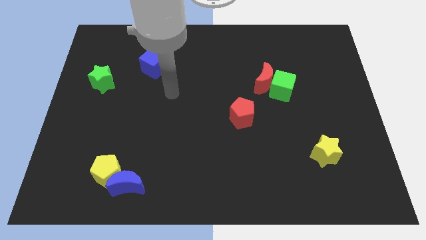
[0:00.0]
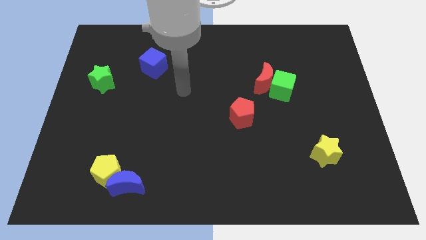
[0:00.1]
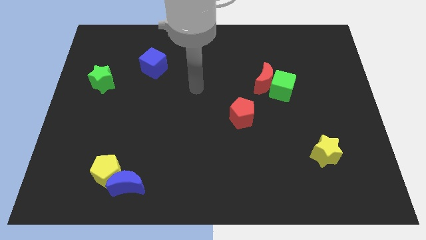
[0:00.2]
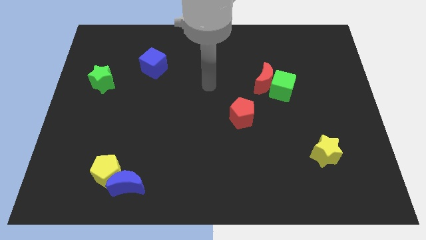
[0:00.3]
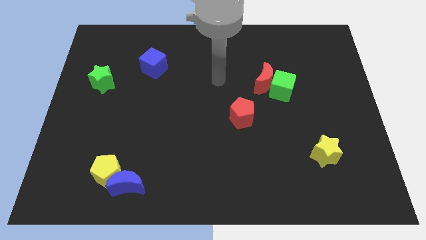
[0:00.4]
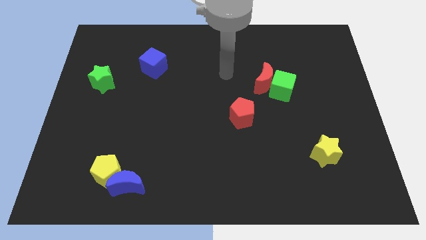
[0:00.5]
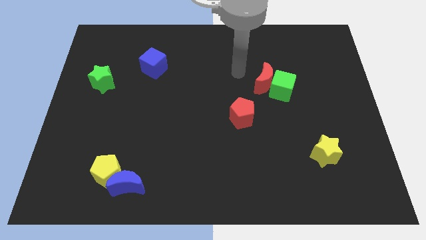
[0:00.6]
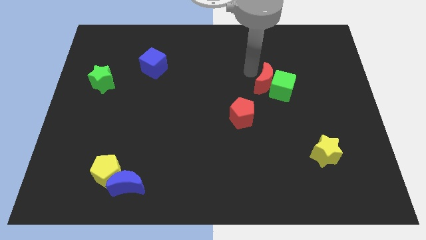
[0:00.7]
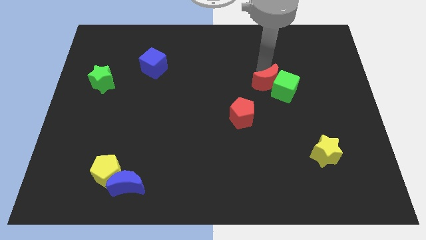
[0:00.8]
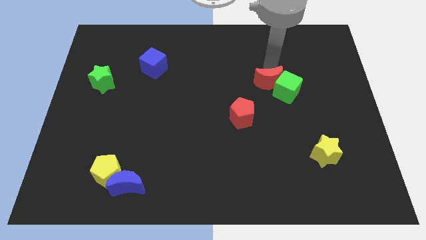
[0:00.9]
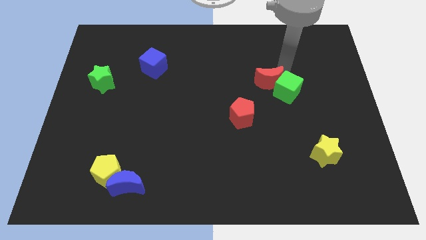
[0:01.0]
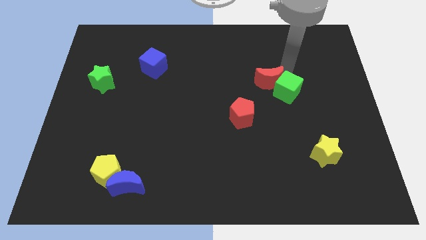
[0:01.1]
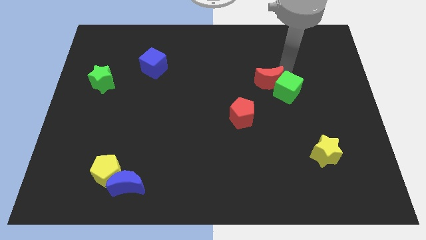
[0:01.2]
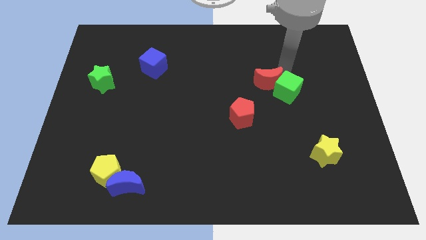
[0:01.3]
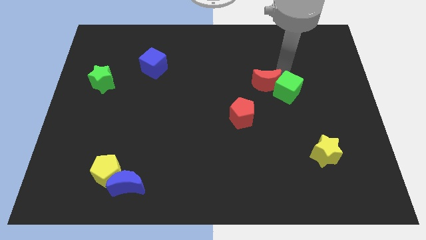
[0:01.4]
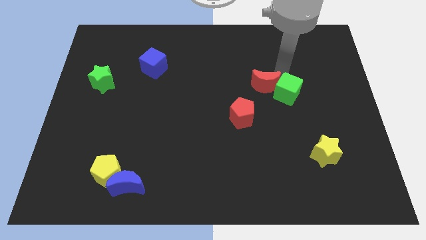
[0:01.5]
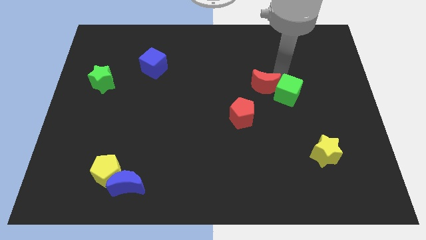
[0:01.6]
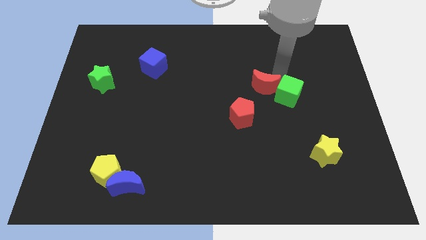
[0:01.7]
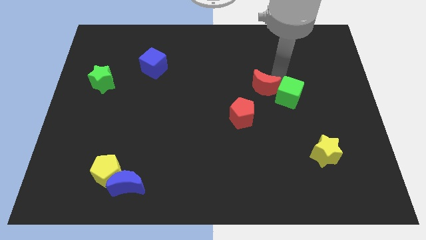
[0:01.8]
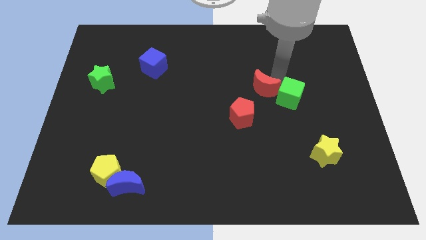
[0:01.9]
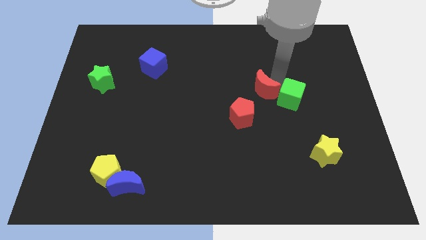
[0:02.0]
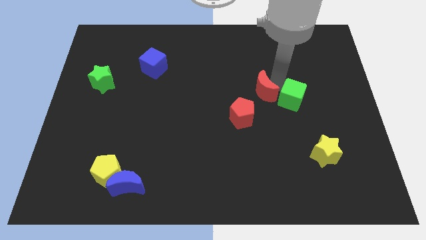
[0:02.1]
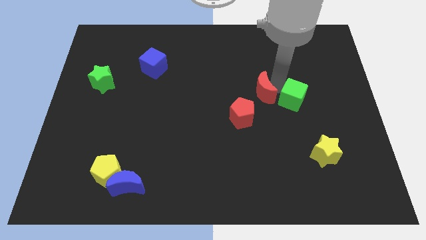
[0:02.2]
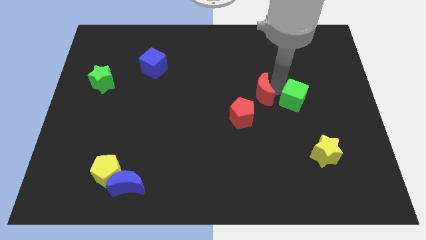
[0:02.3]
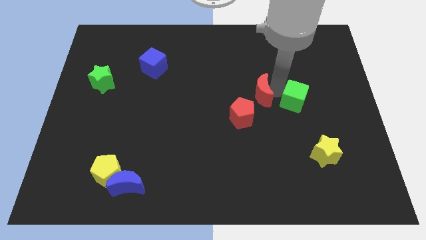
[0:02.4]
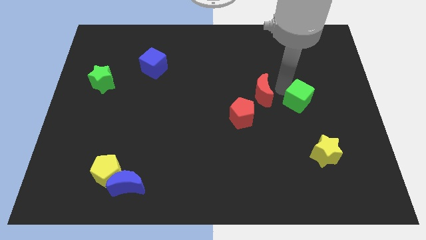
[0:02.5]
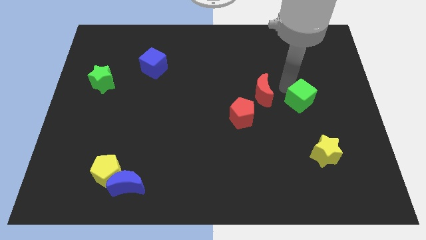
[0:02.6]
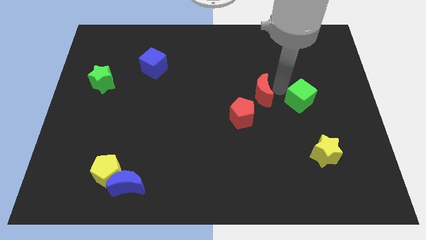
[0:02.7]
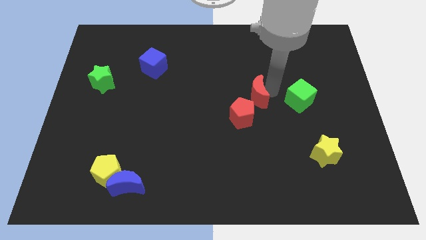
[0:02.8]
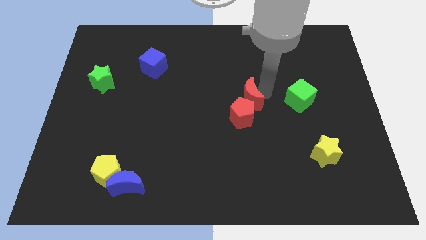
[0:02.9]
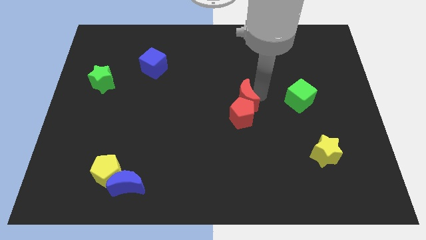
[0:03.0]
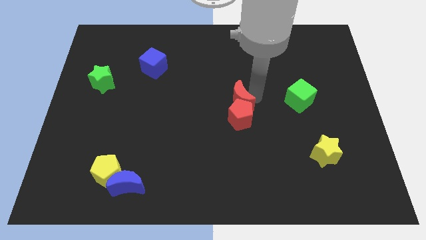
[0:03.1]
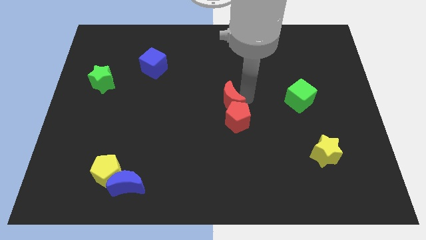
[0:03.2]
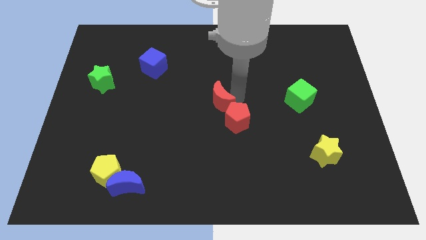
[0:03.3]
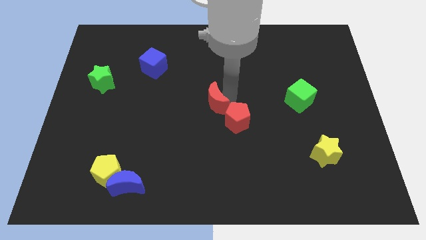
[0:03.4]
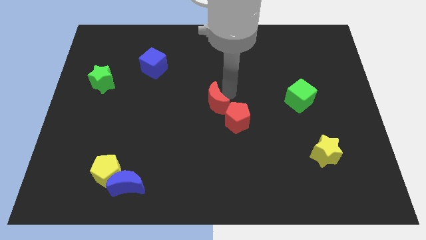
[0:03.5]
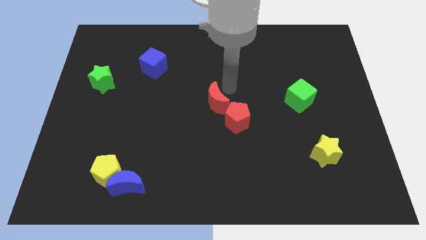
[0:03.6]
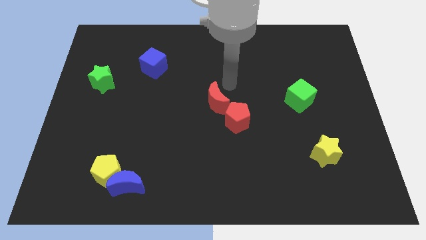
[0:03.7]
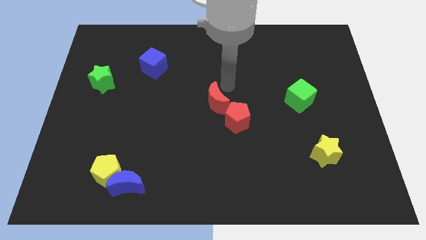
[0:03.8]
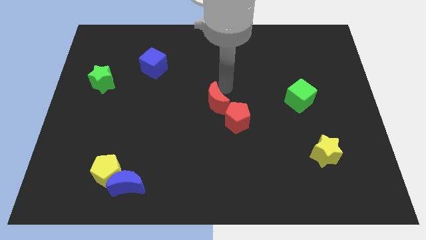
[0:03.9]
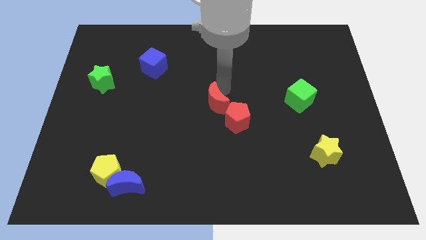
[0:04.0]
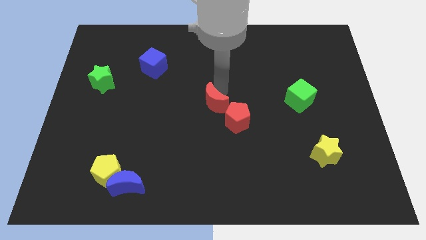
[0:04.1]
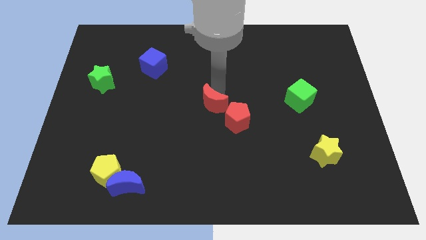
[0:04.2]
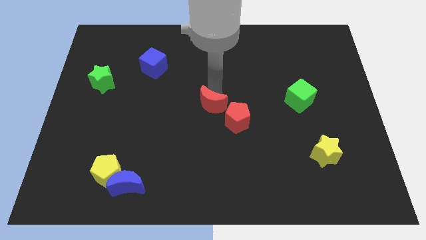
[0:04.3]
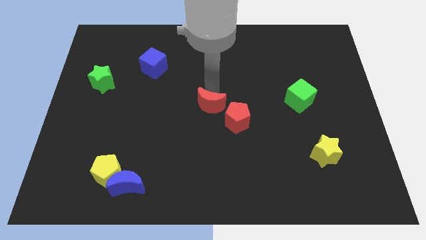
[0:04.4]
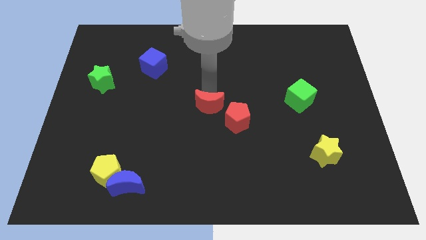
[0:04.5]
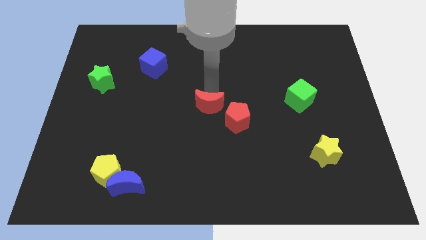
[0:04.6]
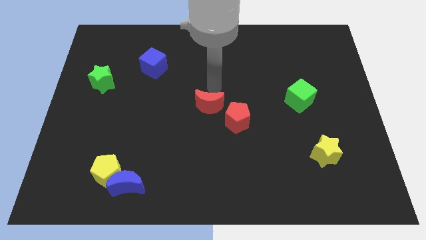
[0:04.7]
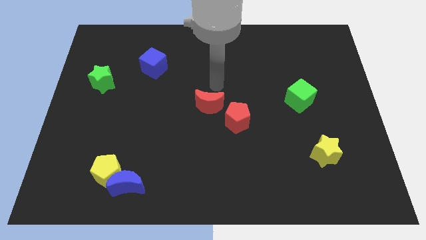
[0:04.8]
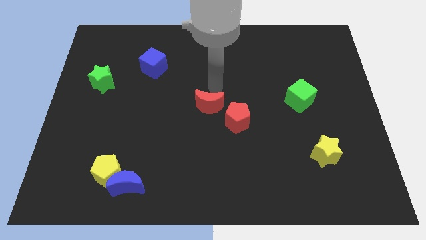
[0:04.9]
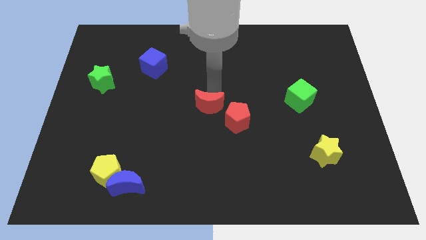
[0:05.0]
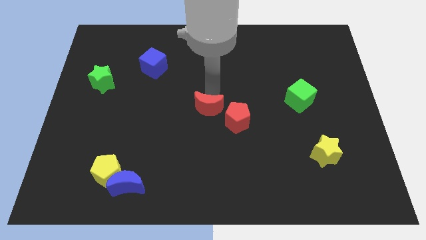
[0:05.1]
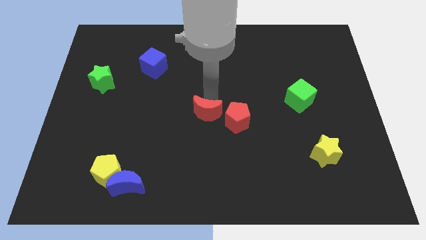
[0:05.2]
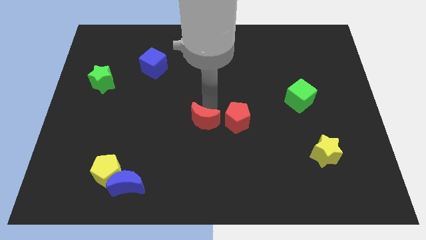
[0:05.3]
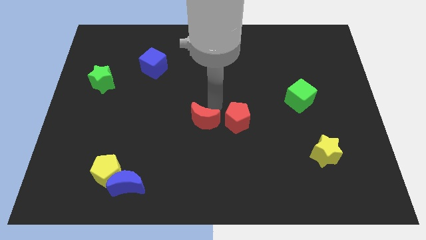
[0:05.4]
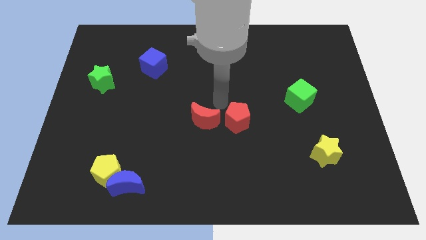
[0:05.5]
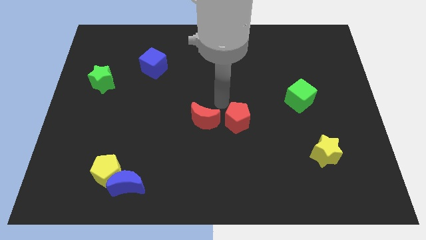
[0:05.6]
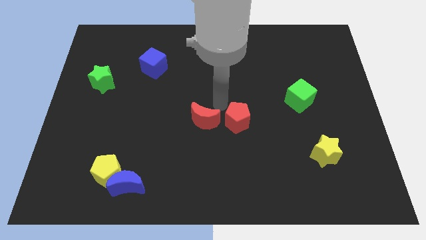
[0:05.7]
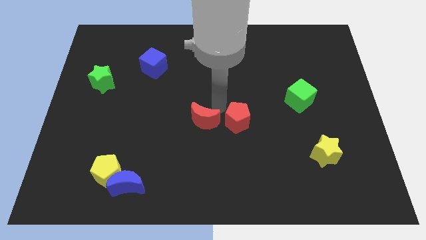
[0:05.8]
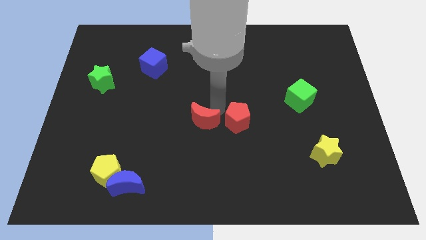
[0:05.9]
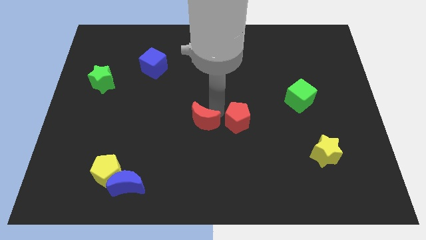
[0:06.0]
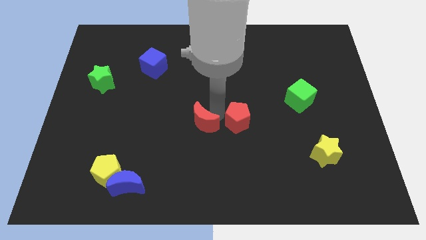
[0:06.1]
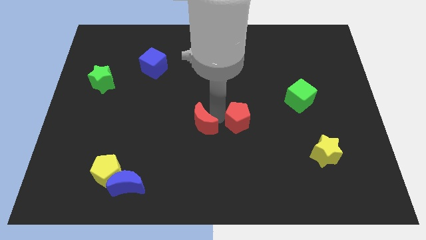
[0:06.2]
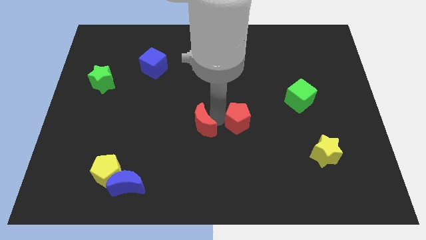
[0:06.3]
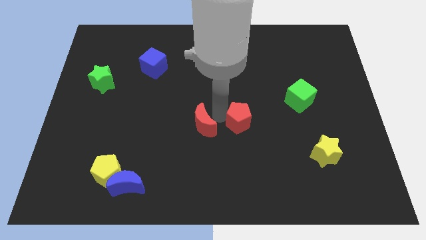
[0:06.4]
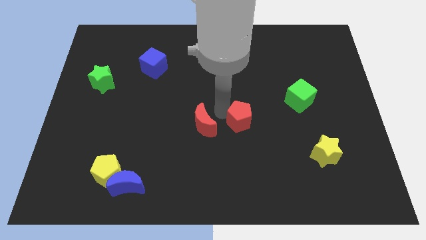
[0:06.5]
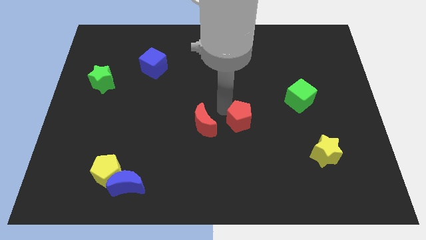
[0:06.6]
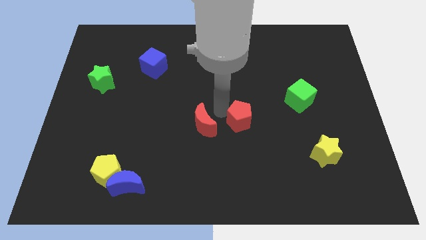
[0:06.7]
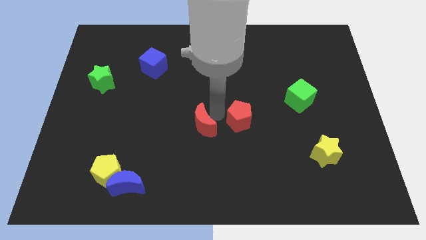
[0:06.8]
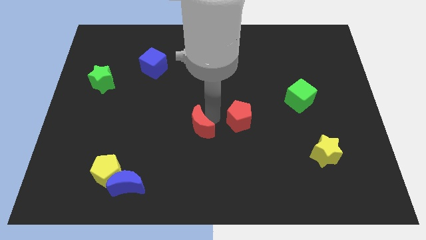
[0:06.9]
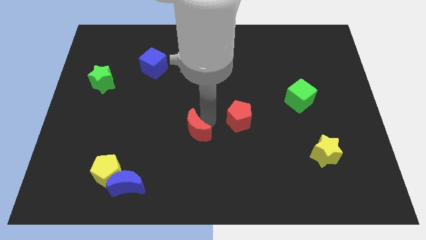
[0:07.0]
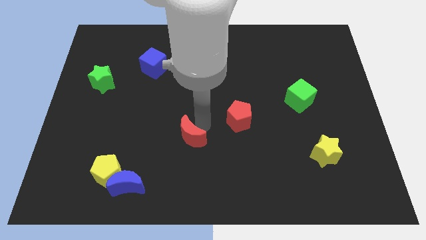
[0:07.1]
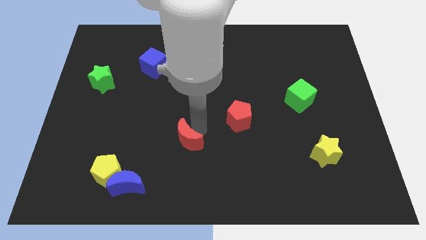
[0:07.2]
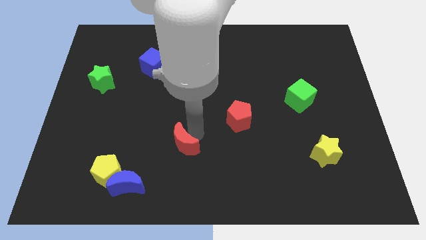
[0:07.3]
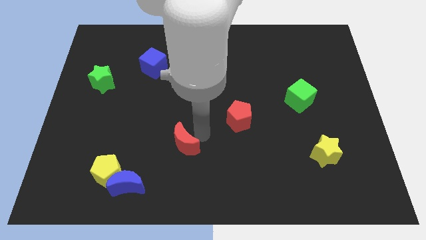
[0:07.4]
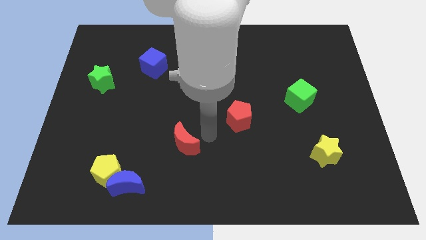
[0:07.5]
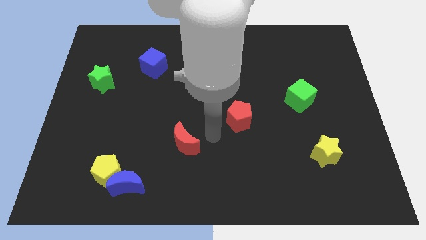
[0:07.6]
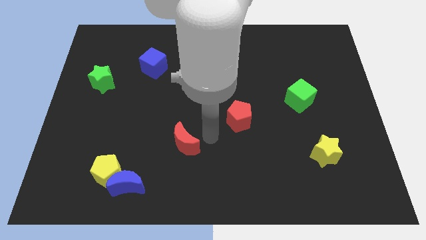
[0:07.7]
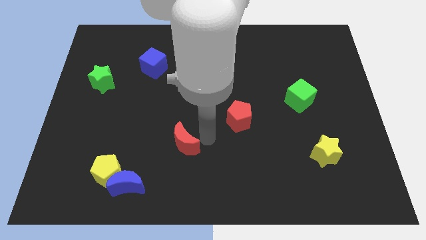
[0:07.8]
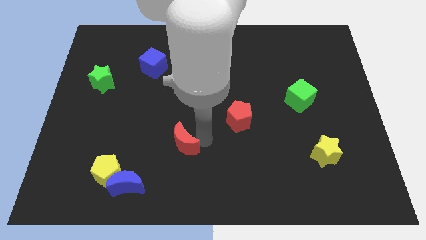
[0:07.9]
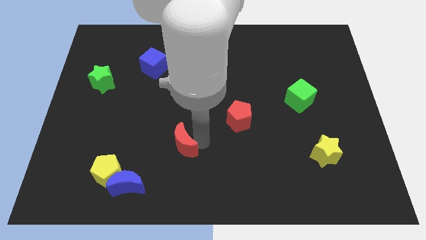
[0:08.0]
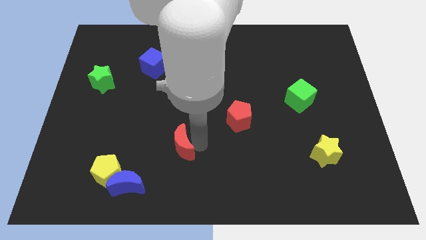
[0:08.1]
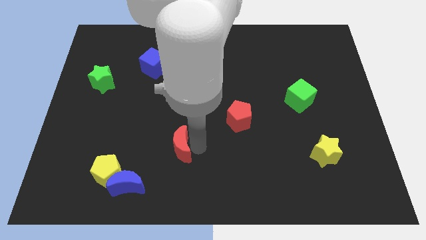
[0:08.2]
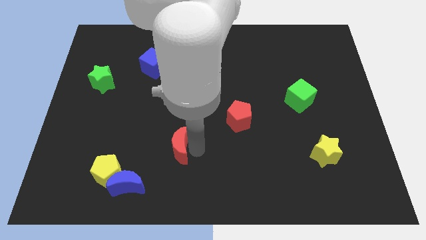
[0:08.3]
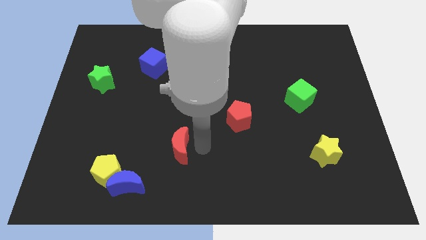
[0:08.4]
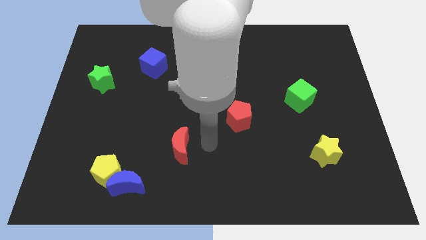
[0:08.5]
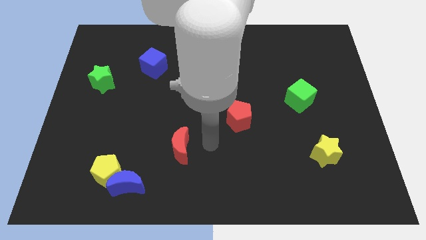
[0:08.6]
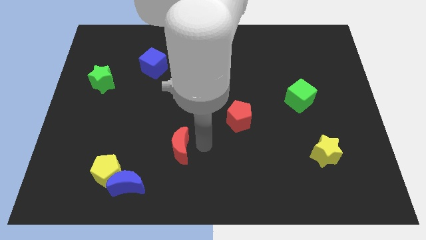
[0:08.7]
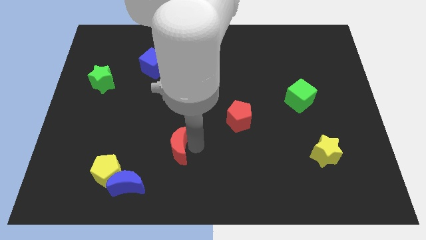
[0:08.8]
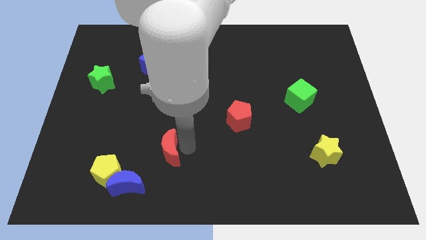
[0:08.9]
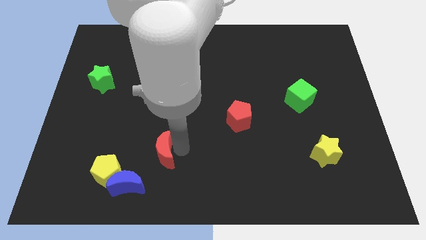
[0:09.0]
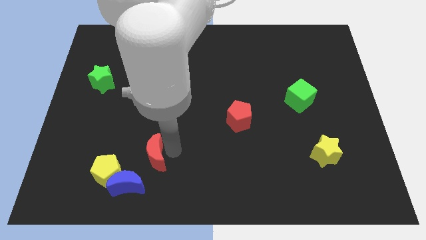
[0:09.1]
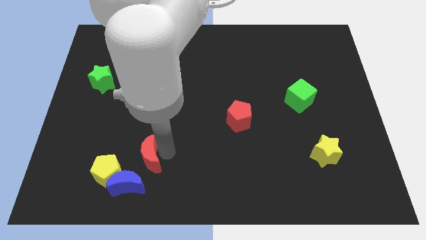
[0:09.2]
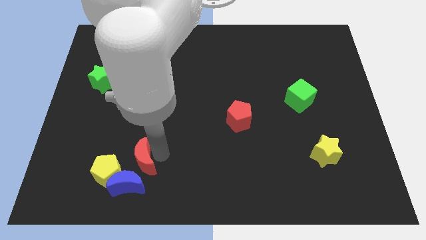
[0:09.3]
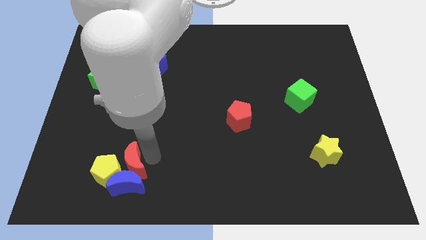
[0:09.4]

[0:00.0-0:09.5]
put the red moon towards the yellow pentagon
